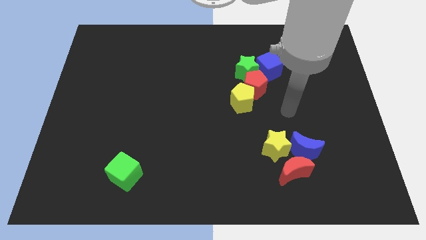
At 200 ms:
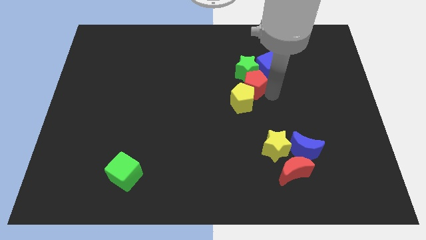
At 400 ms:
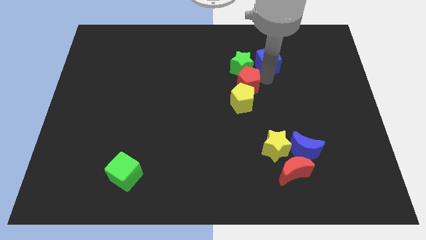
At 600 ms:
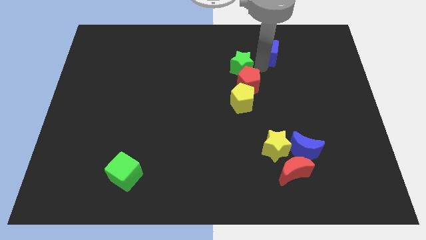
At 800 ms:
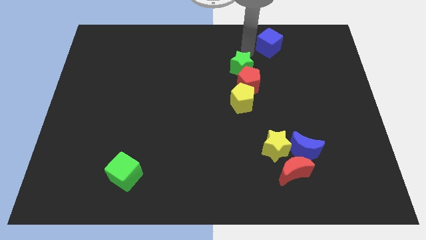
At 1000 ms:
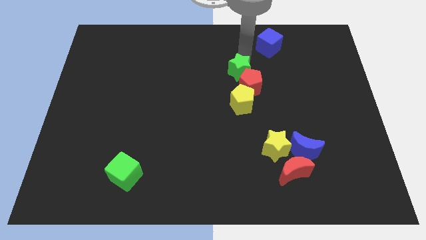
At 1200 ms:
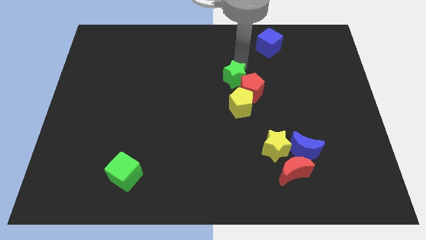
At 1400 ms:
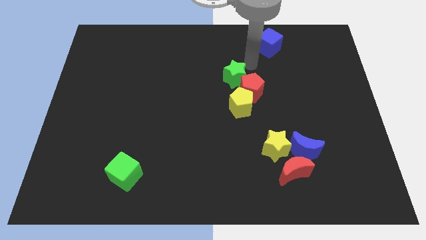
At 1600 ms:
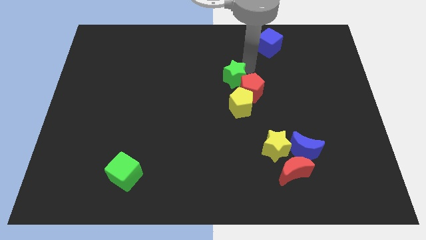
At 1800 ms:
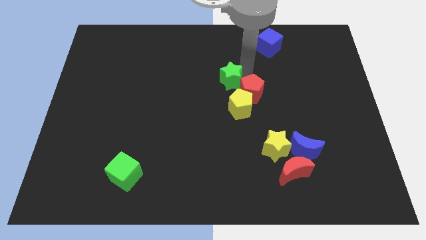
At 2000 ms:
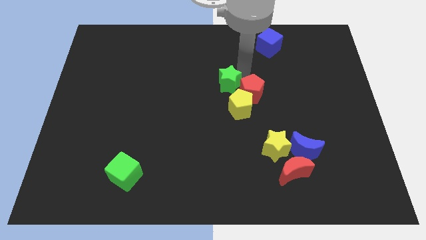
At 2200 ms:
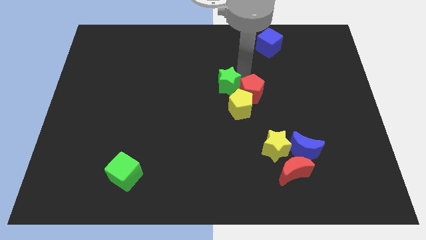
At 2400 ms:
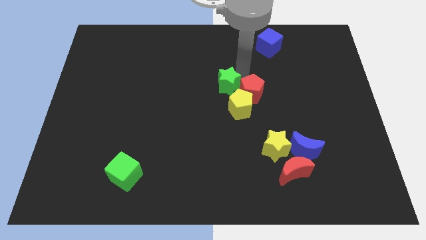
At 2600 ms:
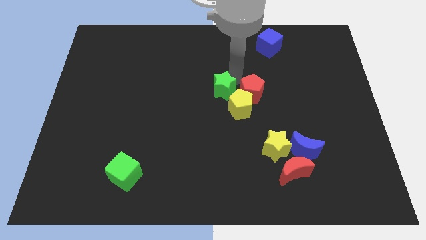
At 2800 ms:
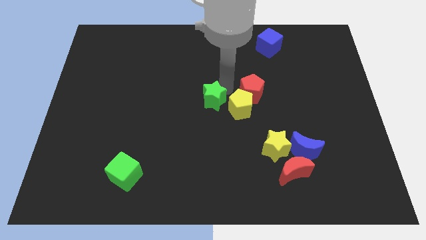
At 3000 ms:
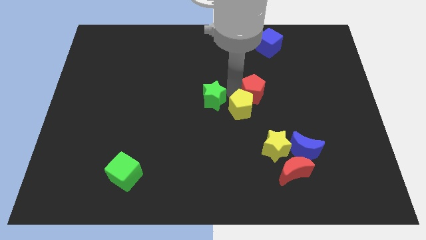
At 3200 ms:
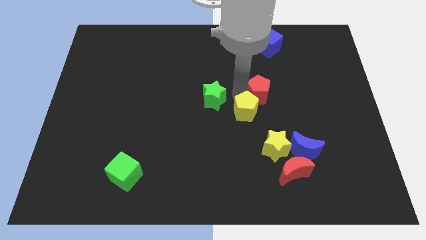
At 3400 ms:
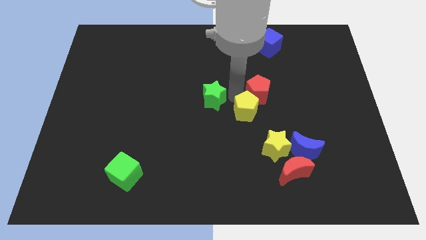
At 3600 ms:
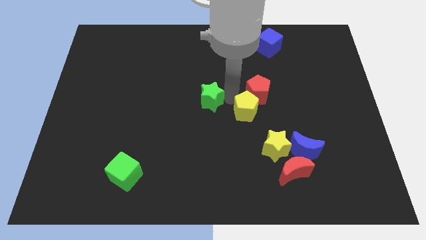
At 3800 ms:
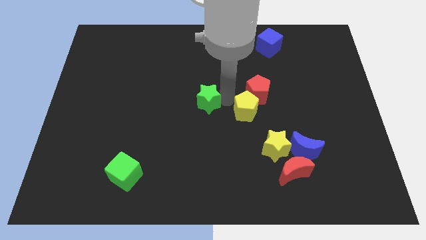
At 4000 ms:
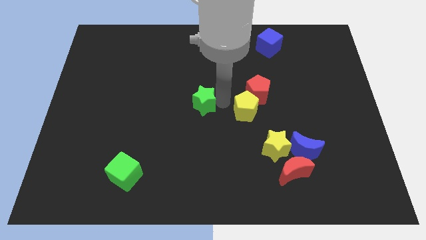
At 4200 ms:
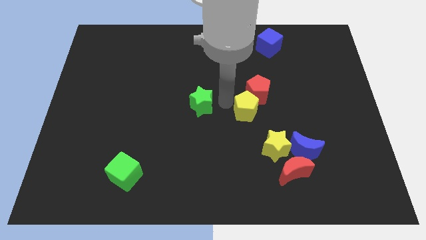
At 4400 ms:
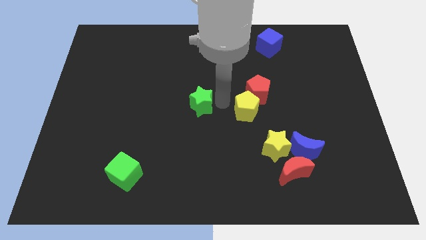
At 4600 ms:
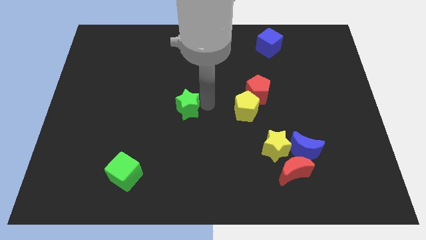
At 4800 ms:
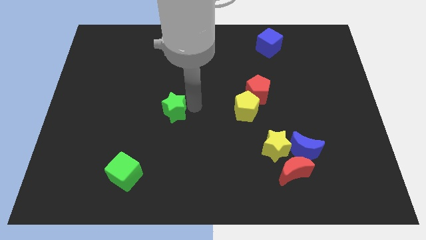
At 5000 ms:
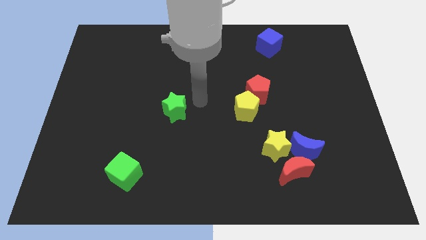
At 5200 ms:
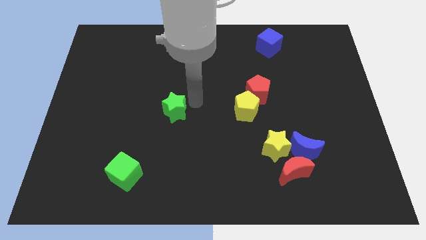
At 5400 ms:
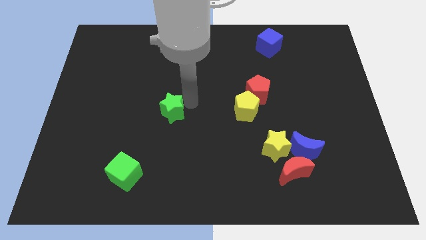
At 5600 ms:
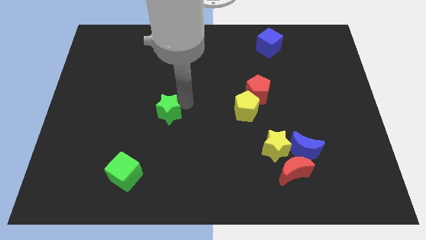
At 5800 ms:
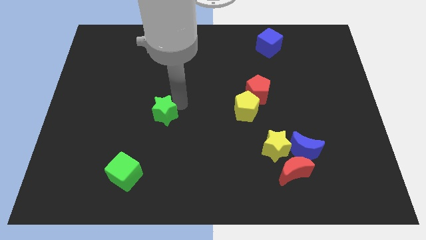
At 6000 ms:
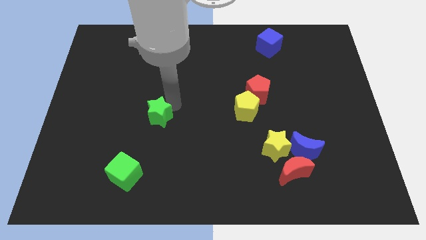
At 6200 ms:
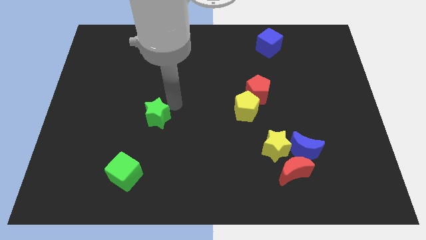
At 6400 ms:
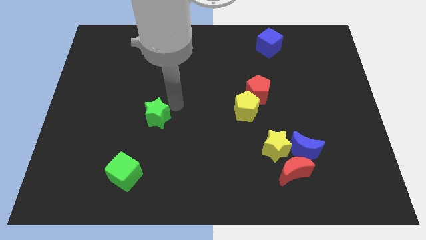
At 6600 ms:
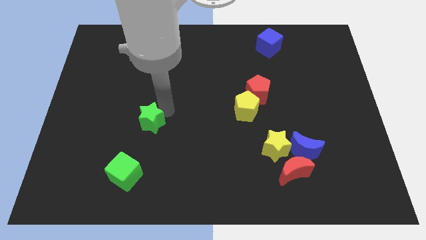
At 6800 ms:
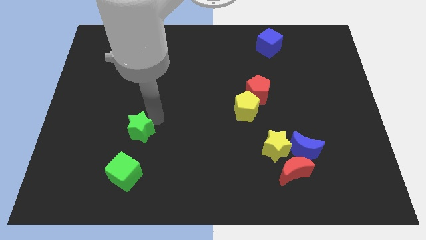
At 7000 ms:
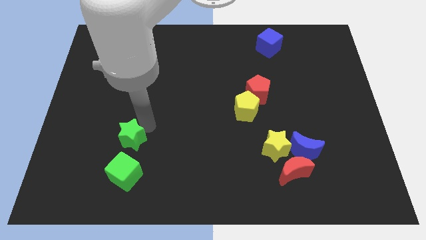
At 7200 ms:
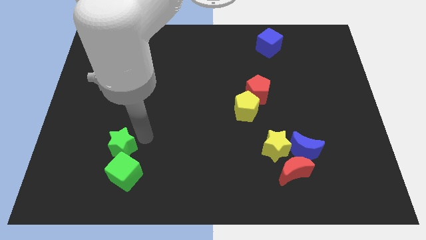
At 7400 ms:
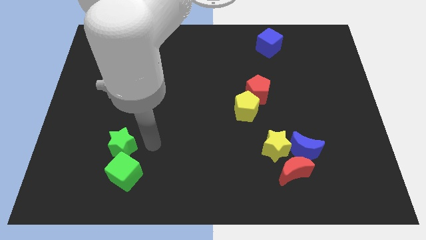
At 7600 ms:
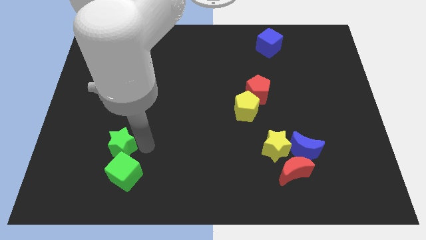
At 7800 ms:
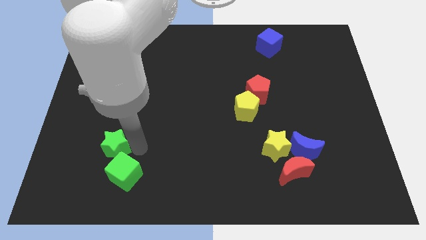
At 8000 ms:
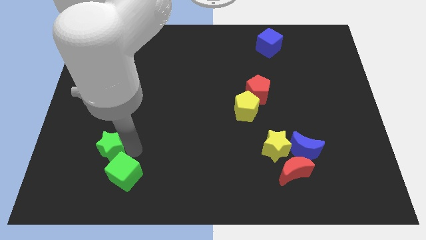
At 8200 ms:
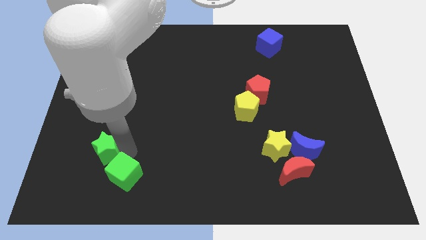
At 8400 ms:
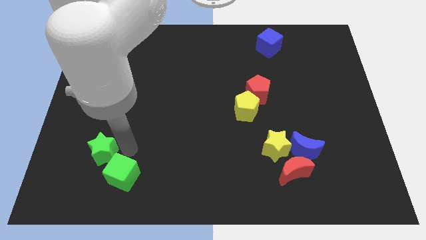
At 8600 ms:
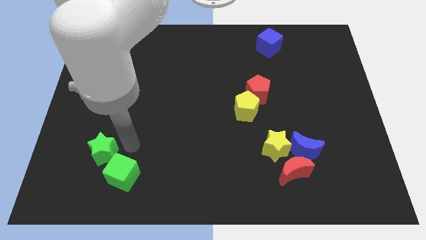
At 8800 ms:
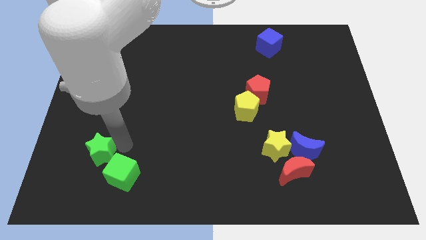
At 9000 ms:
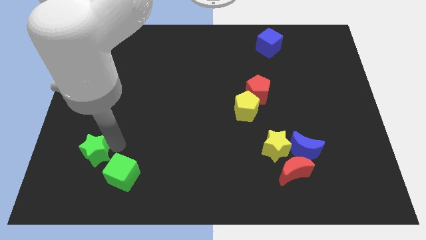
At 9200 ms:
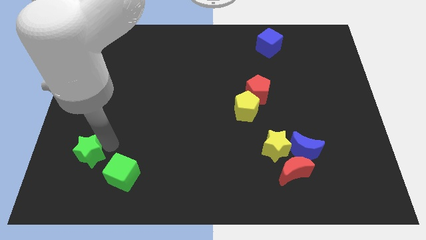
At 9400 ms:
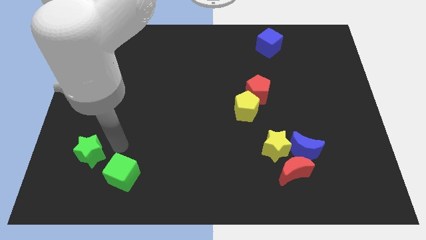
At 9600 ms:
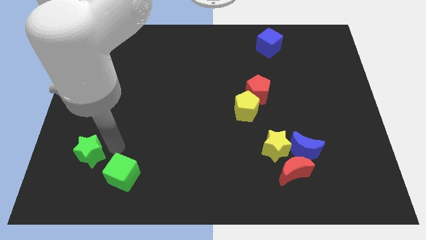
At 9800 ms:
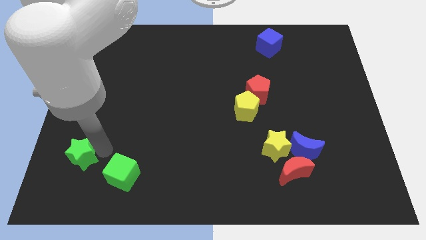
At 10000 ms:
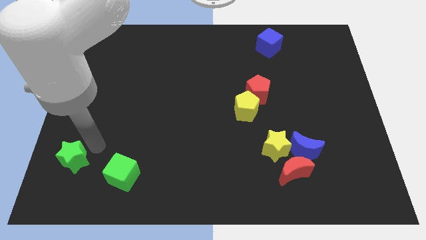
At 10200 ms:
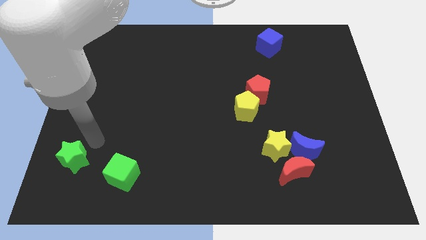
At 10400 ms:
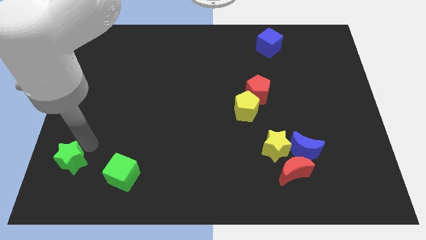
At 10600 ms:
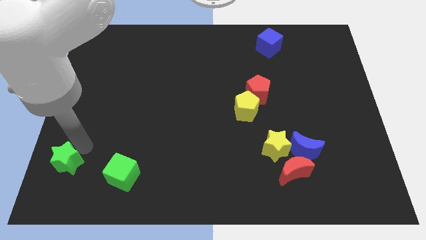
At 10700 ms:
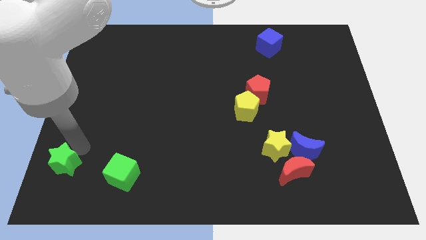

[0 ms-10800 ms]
put the green star to the bottom left corner

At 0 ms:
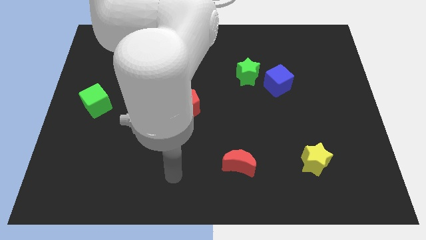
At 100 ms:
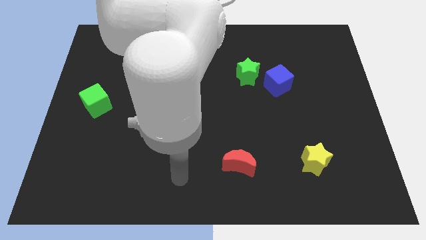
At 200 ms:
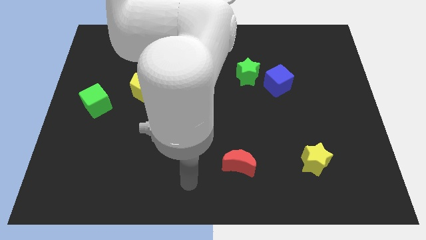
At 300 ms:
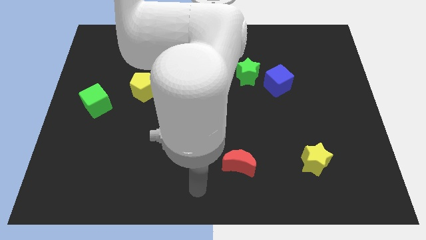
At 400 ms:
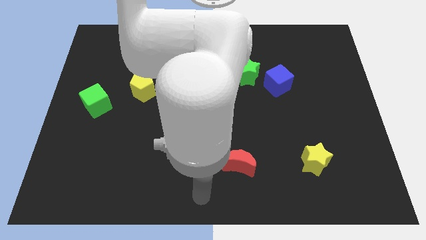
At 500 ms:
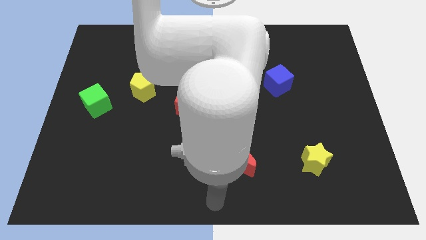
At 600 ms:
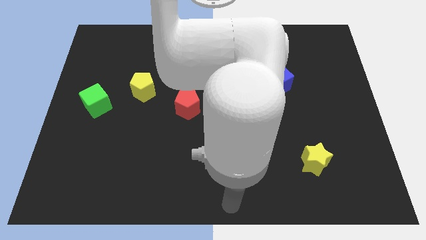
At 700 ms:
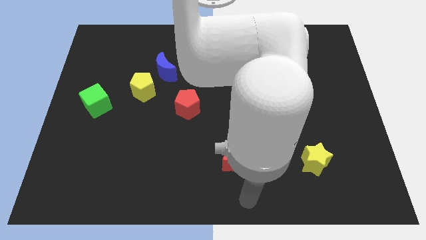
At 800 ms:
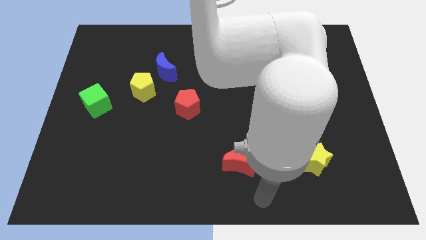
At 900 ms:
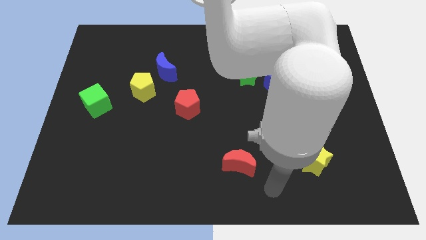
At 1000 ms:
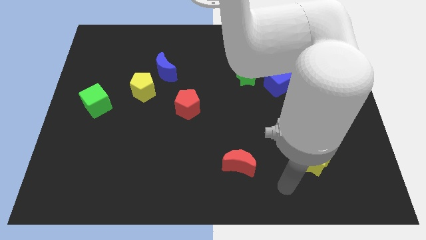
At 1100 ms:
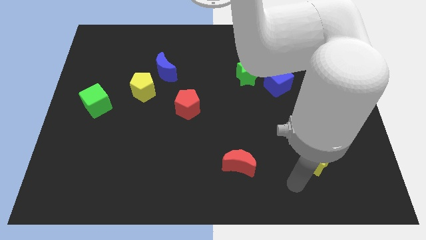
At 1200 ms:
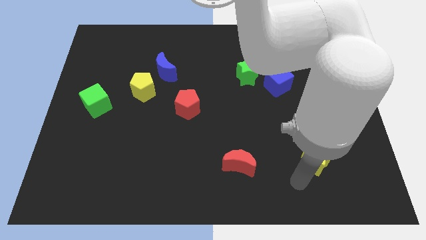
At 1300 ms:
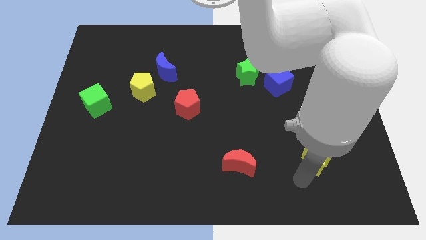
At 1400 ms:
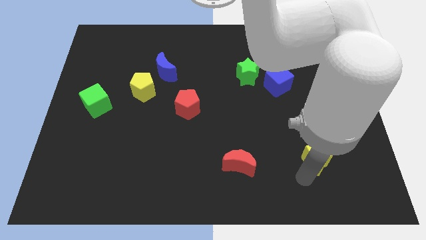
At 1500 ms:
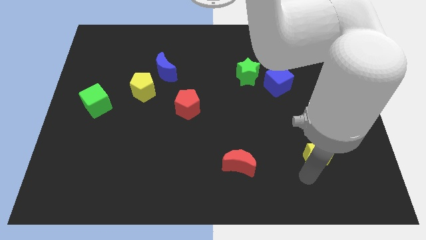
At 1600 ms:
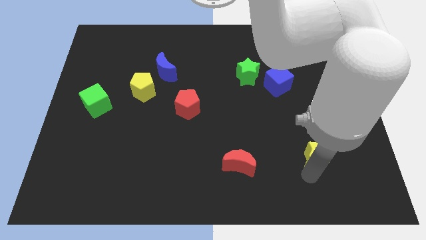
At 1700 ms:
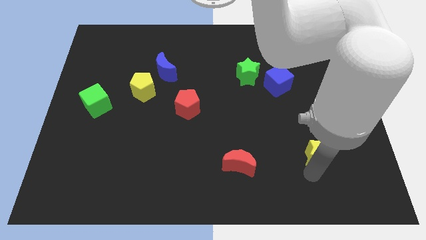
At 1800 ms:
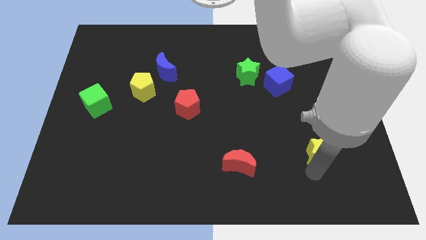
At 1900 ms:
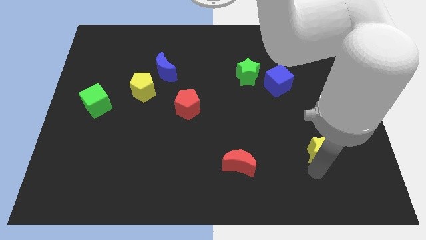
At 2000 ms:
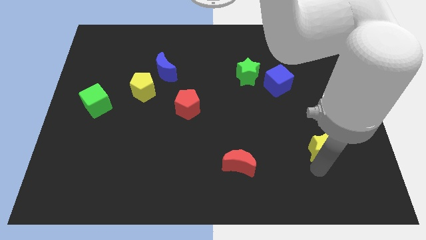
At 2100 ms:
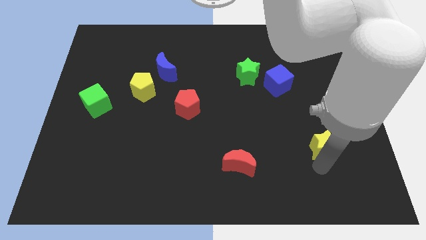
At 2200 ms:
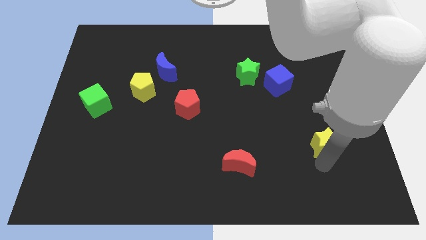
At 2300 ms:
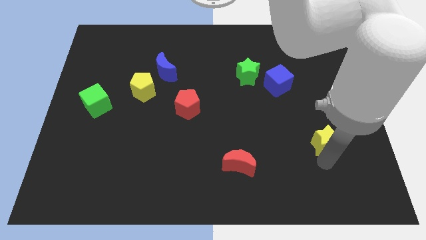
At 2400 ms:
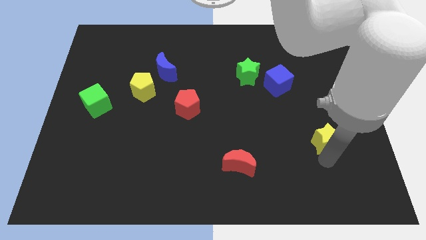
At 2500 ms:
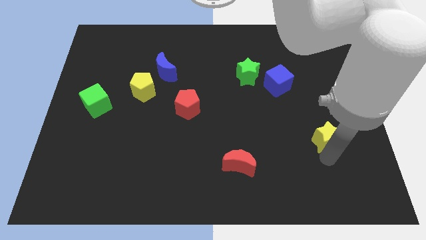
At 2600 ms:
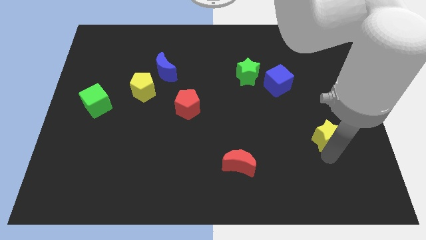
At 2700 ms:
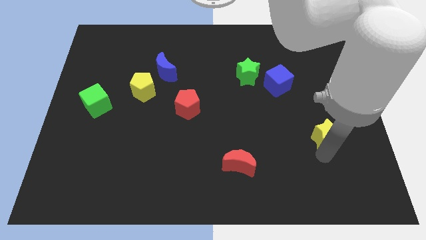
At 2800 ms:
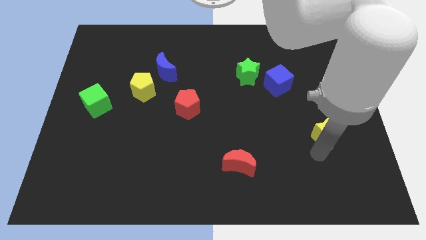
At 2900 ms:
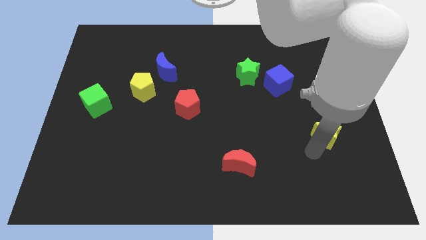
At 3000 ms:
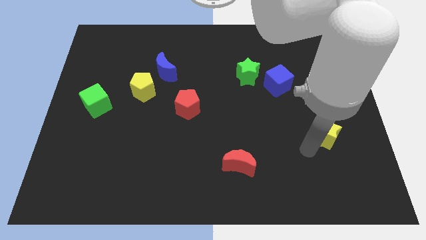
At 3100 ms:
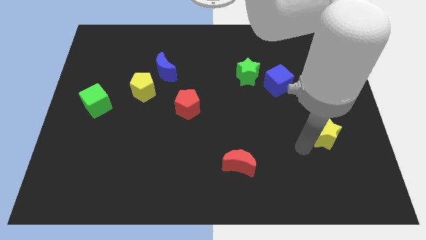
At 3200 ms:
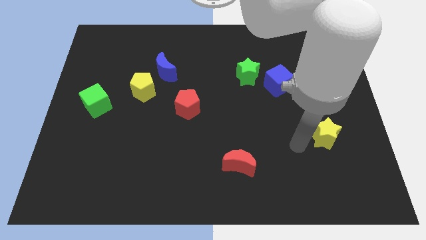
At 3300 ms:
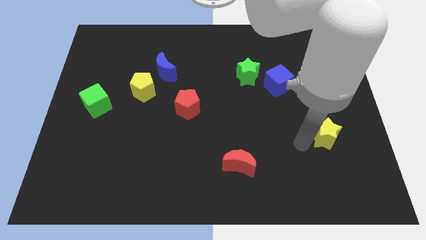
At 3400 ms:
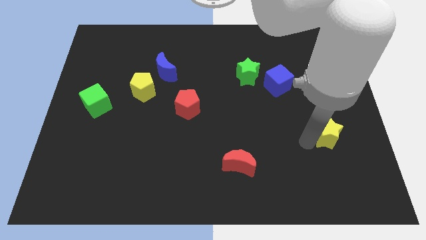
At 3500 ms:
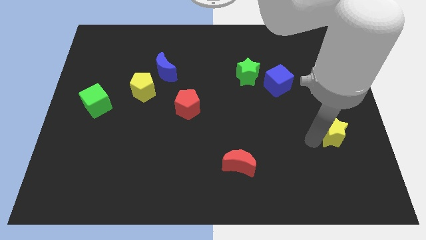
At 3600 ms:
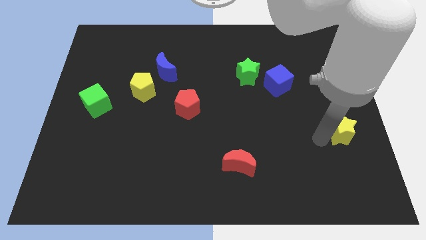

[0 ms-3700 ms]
slide the yellow star to the center right
